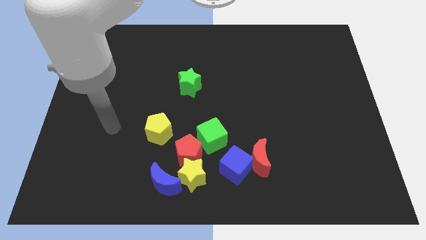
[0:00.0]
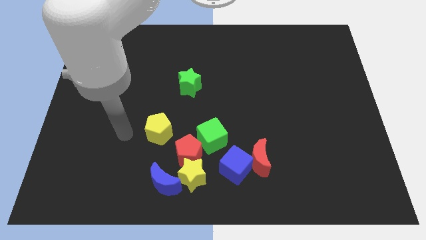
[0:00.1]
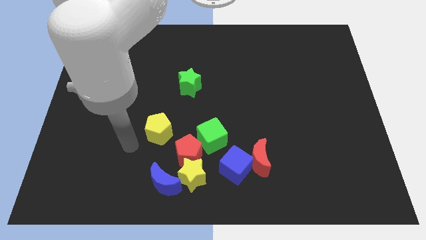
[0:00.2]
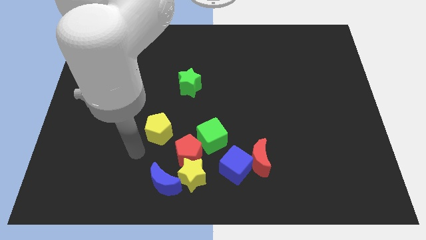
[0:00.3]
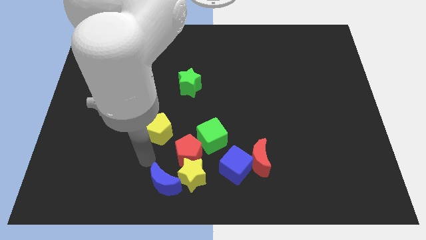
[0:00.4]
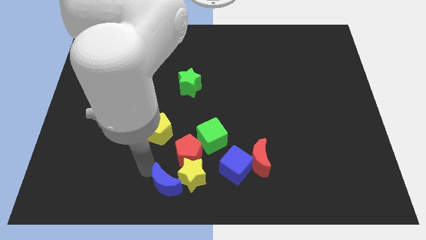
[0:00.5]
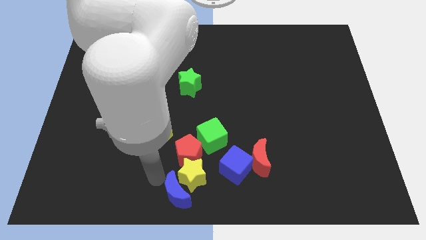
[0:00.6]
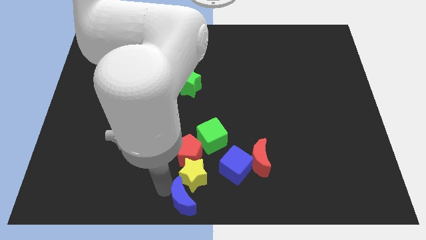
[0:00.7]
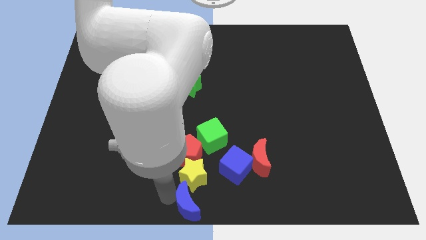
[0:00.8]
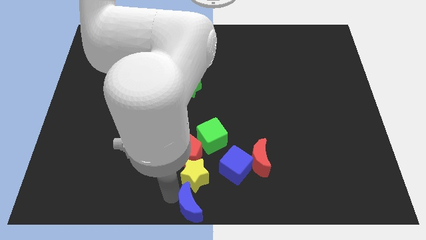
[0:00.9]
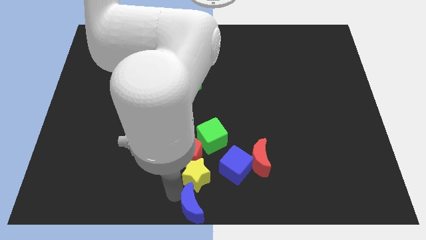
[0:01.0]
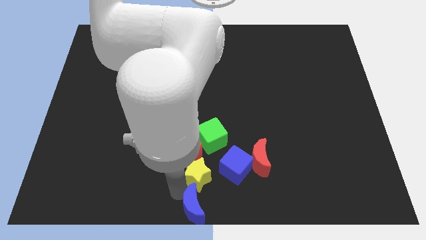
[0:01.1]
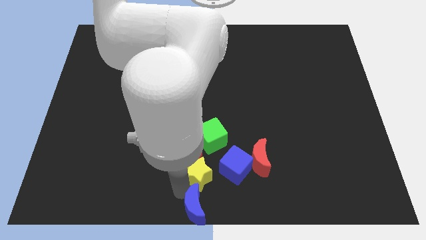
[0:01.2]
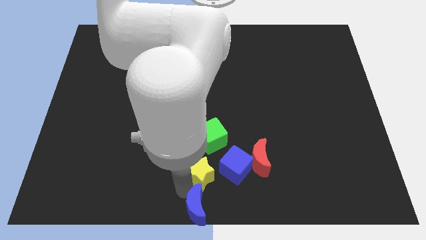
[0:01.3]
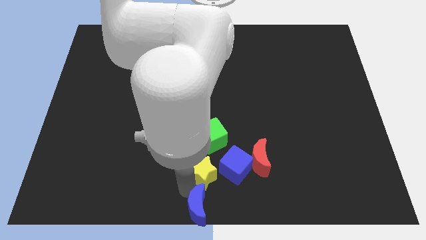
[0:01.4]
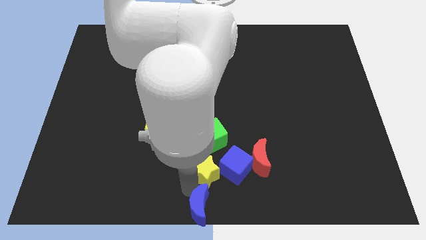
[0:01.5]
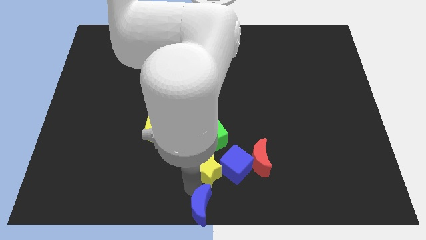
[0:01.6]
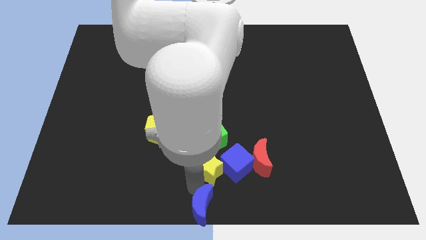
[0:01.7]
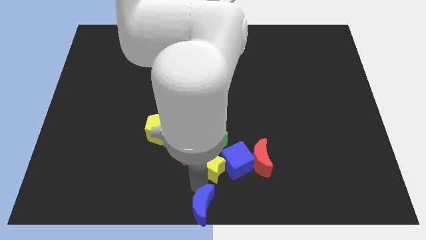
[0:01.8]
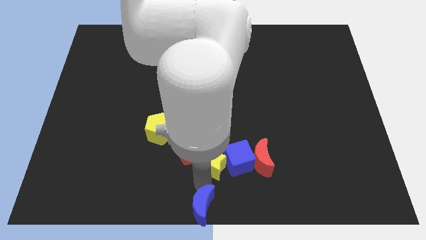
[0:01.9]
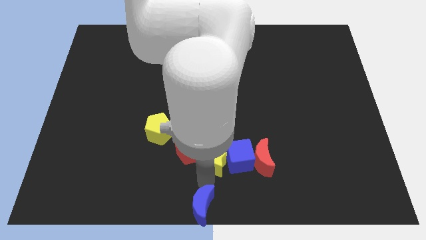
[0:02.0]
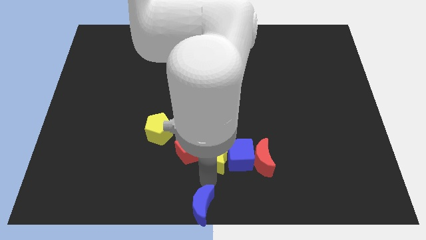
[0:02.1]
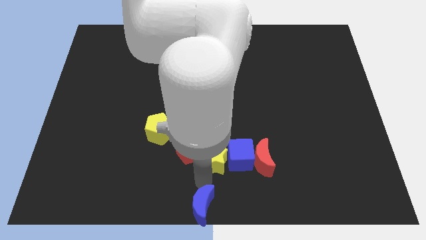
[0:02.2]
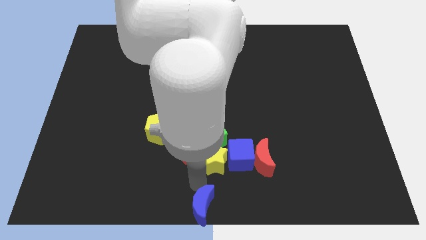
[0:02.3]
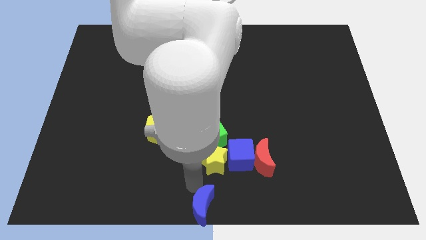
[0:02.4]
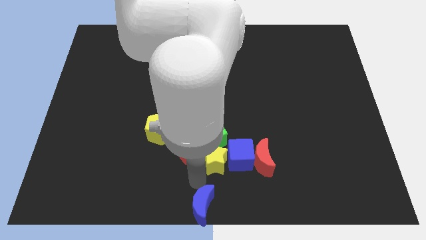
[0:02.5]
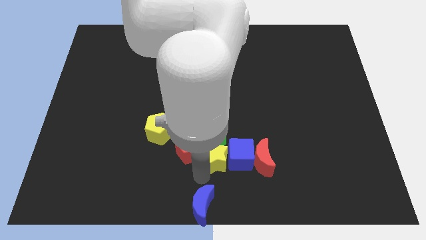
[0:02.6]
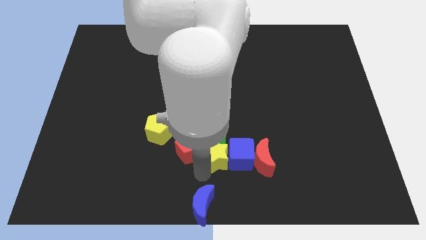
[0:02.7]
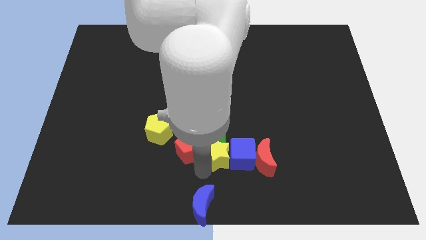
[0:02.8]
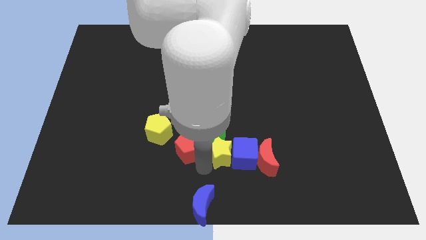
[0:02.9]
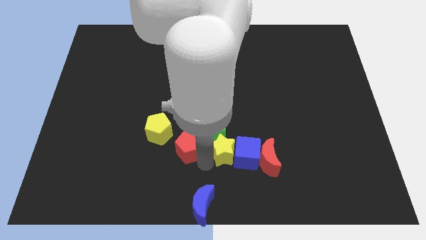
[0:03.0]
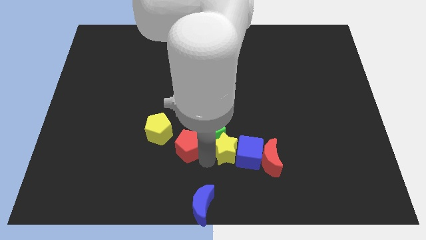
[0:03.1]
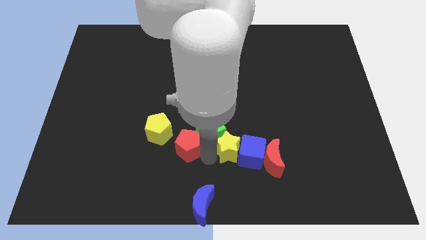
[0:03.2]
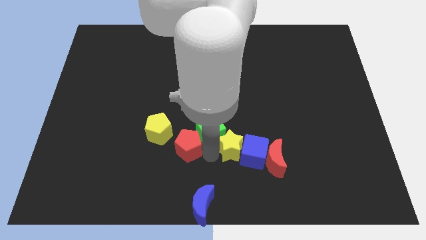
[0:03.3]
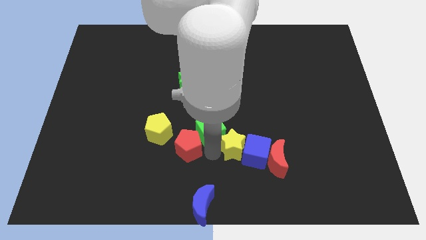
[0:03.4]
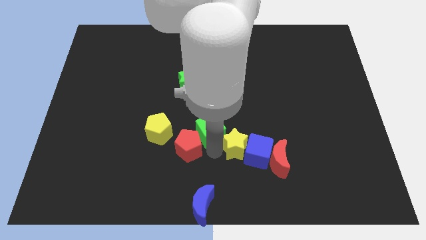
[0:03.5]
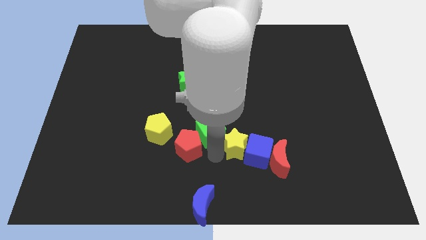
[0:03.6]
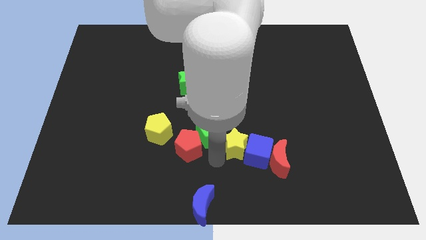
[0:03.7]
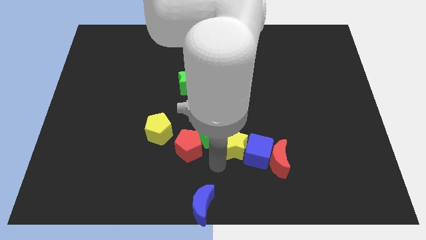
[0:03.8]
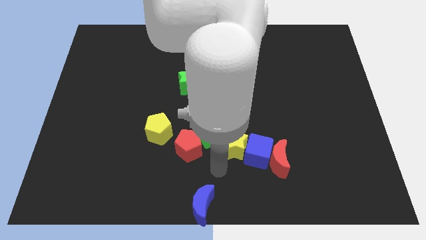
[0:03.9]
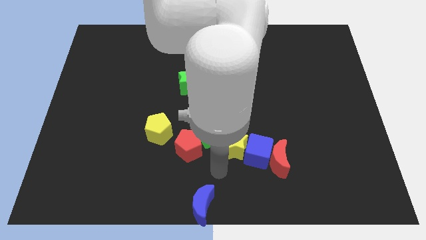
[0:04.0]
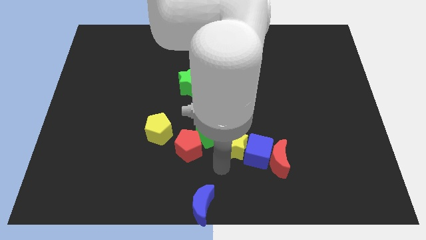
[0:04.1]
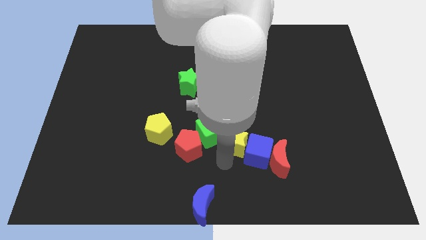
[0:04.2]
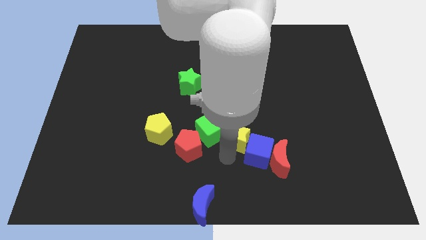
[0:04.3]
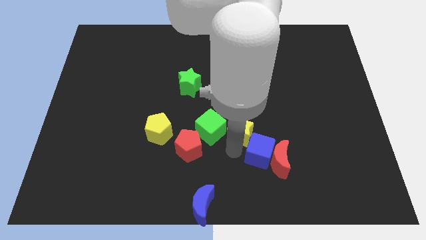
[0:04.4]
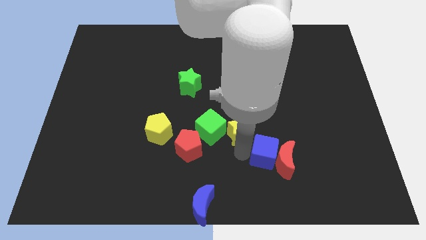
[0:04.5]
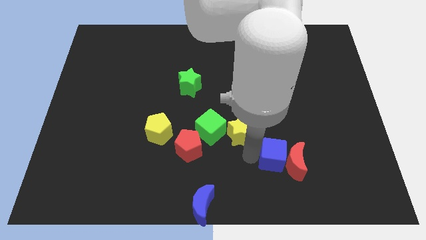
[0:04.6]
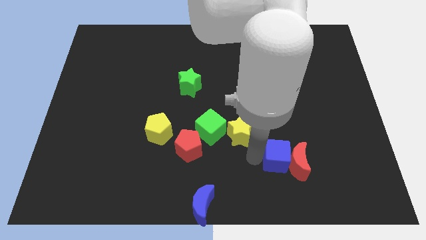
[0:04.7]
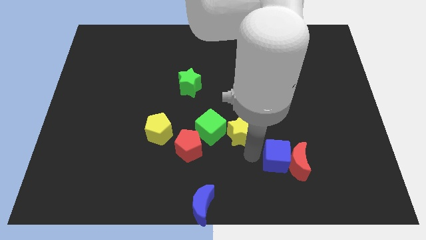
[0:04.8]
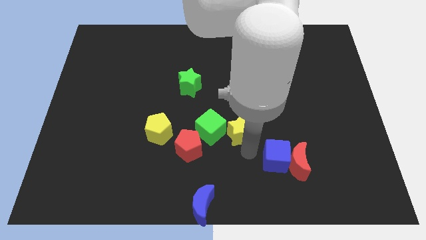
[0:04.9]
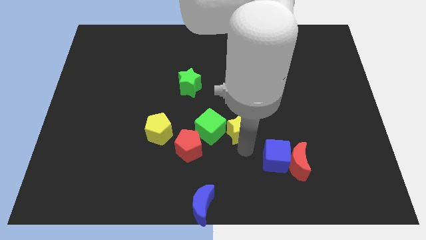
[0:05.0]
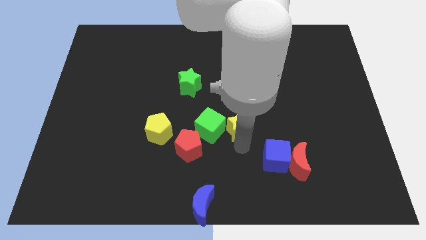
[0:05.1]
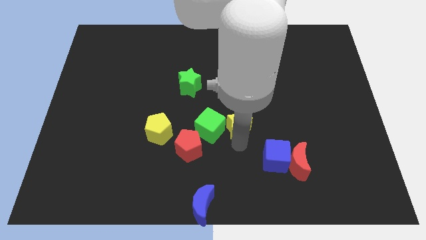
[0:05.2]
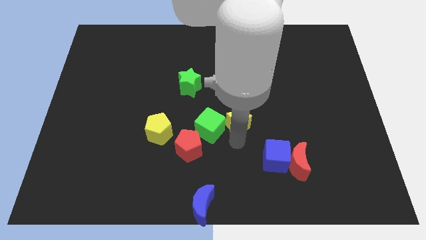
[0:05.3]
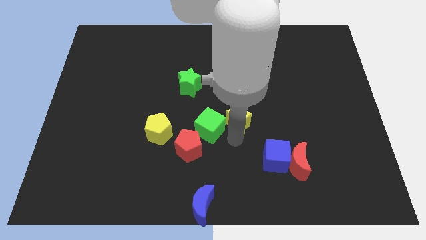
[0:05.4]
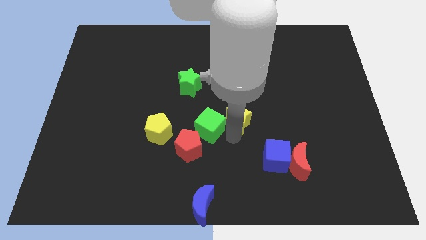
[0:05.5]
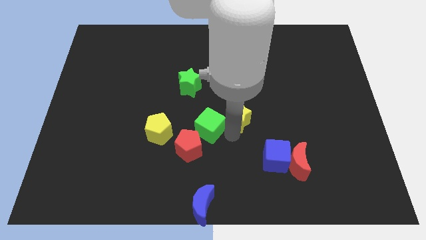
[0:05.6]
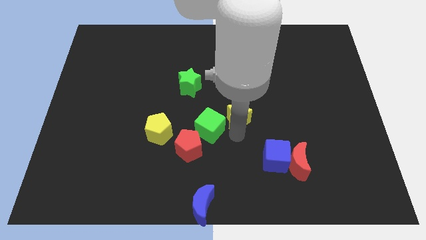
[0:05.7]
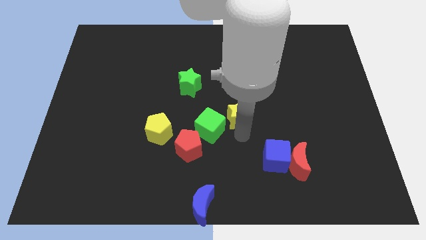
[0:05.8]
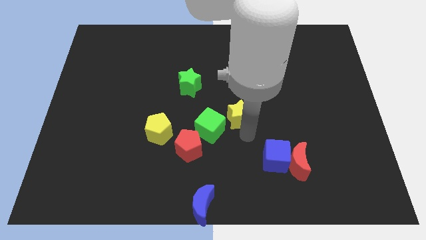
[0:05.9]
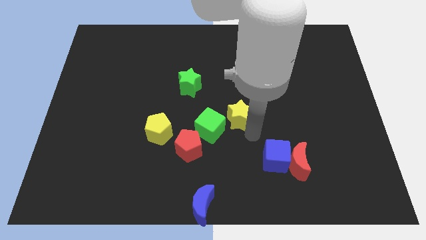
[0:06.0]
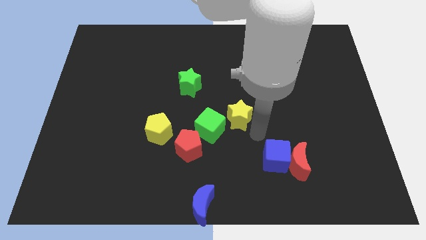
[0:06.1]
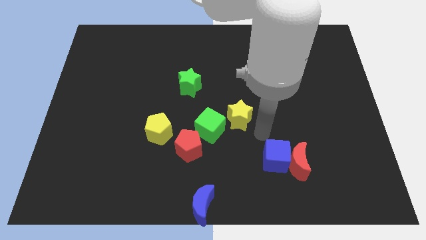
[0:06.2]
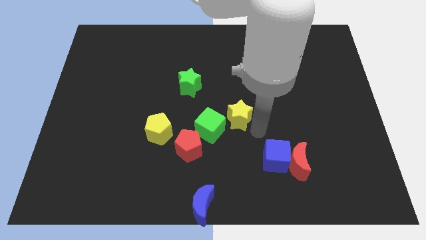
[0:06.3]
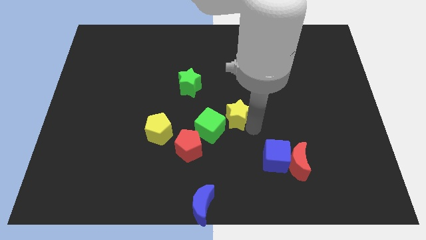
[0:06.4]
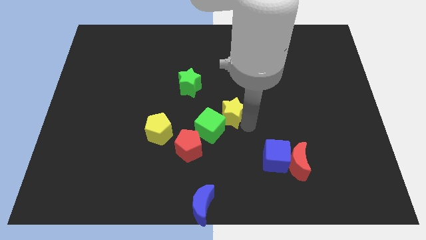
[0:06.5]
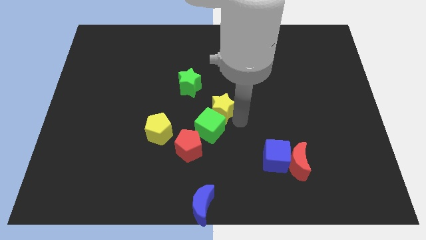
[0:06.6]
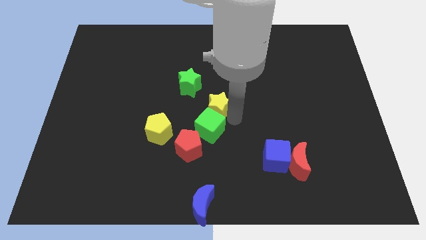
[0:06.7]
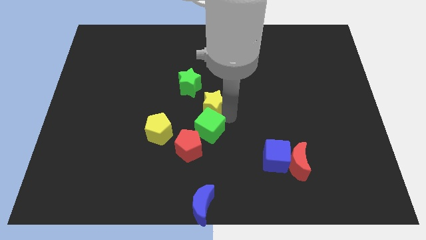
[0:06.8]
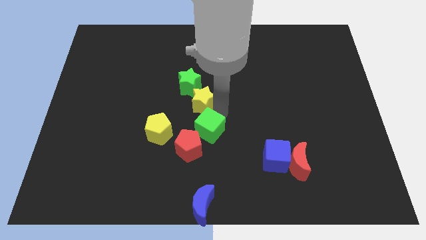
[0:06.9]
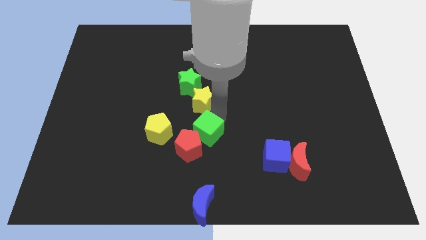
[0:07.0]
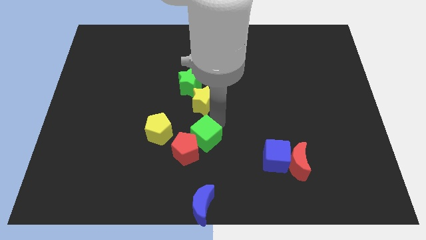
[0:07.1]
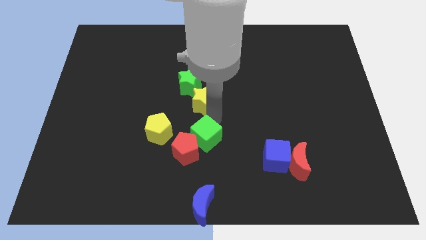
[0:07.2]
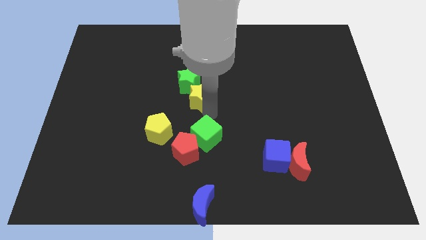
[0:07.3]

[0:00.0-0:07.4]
move the yellow star to the green star
